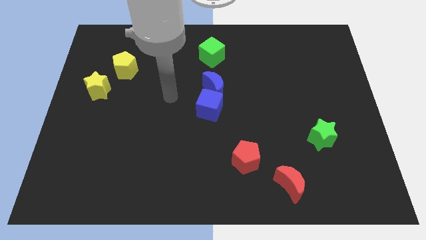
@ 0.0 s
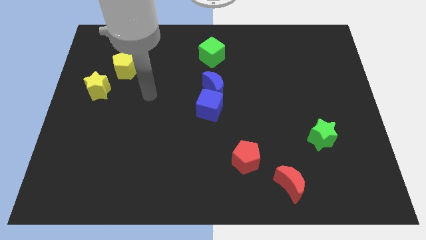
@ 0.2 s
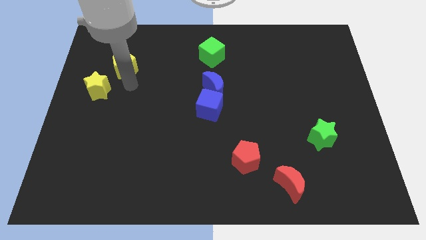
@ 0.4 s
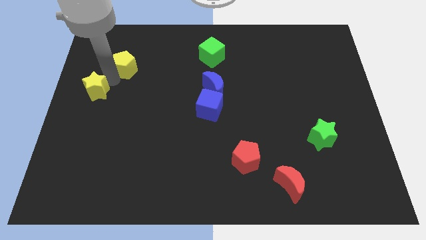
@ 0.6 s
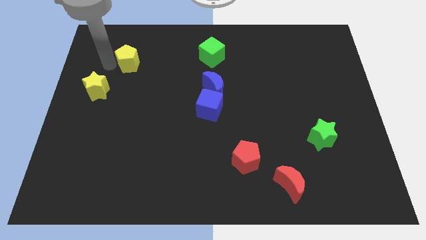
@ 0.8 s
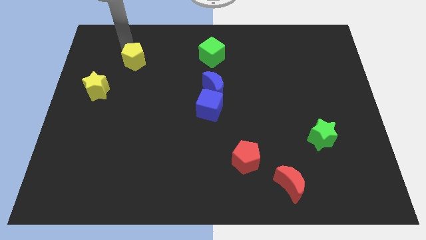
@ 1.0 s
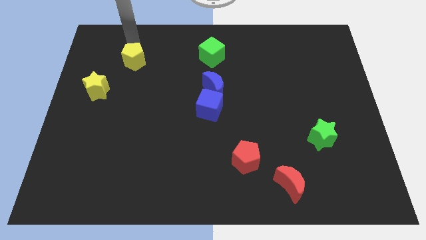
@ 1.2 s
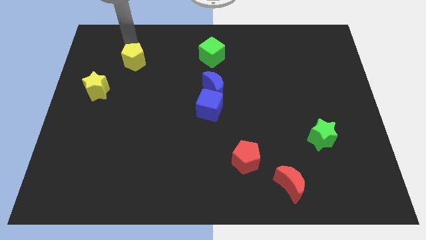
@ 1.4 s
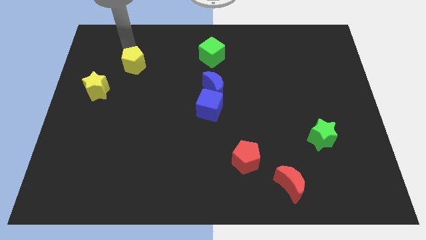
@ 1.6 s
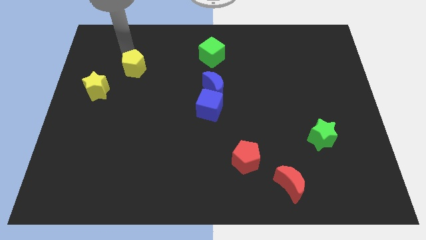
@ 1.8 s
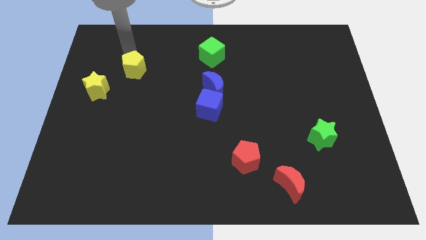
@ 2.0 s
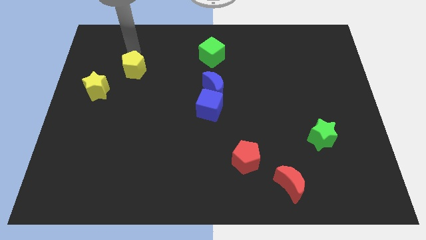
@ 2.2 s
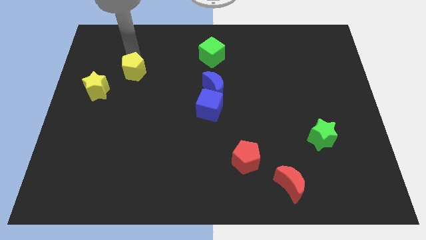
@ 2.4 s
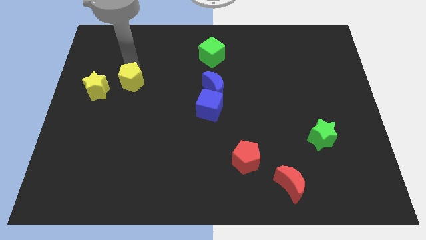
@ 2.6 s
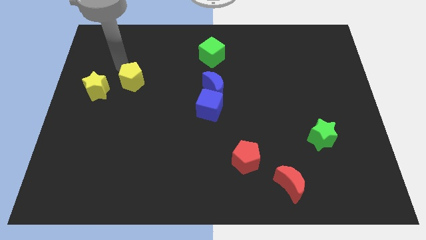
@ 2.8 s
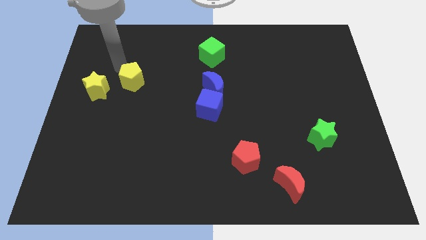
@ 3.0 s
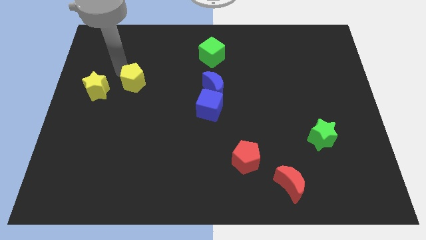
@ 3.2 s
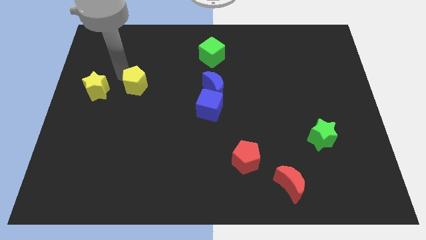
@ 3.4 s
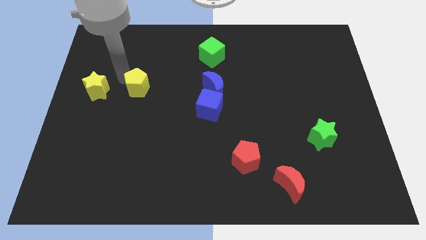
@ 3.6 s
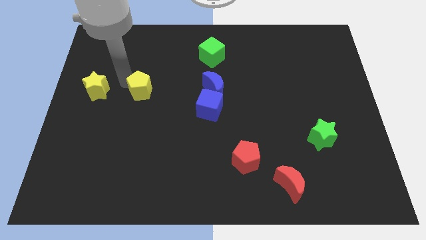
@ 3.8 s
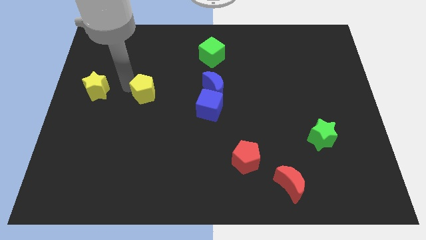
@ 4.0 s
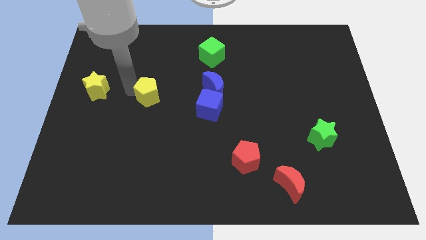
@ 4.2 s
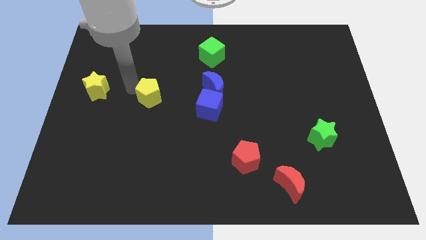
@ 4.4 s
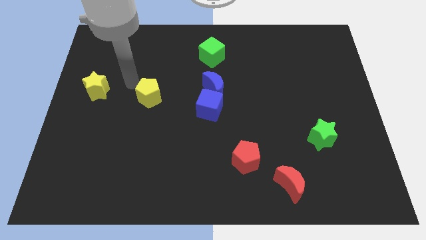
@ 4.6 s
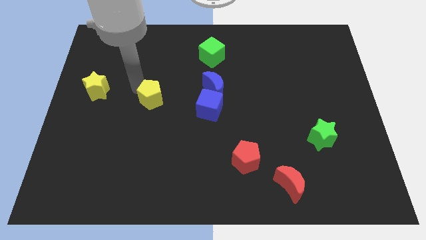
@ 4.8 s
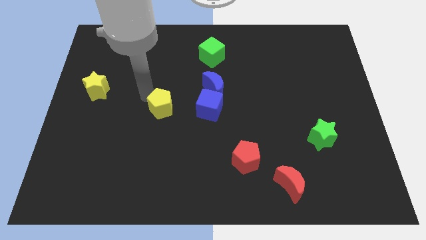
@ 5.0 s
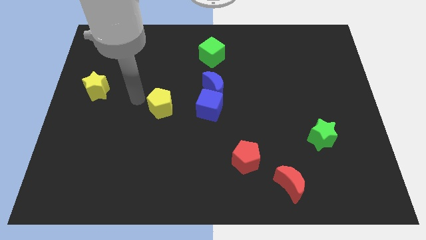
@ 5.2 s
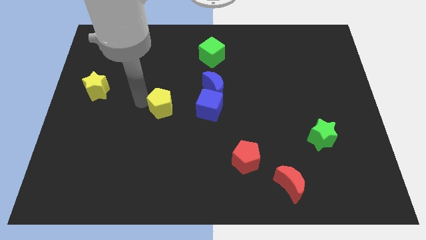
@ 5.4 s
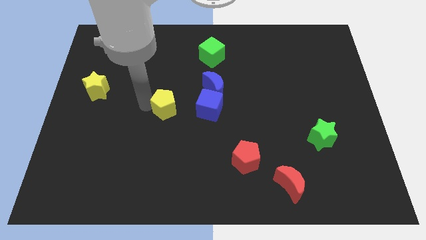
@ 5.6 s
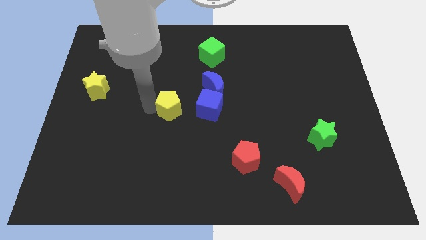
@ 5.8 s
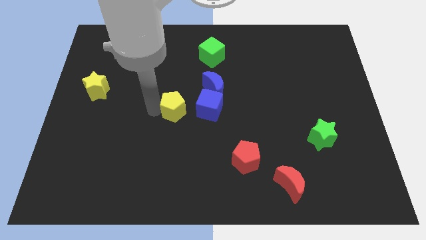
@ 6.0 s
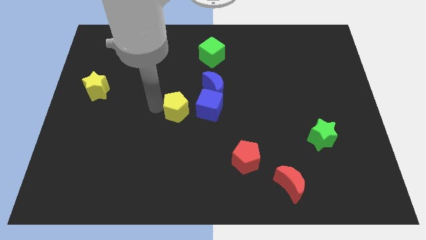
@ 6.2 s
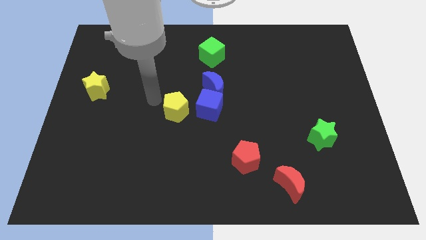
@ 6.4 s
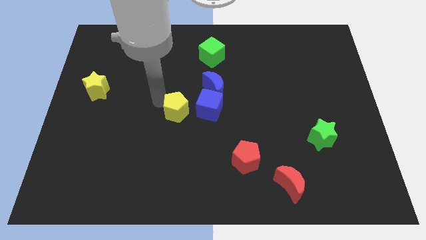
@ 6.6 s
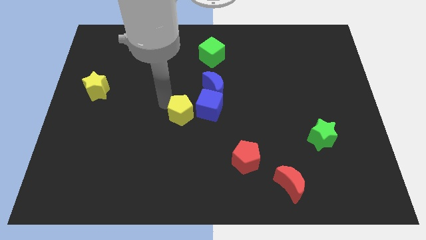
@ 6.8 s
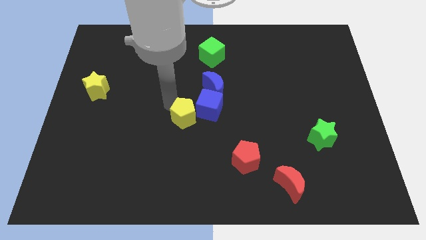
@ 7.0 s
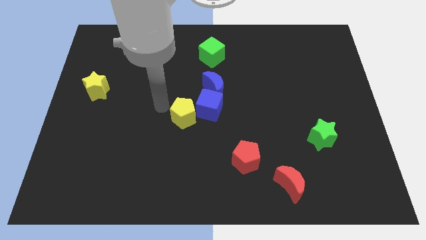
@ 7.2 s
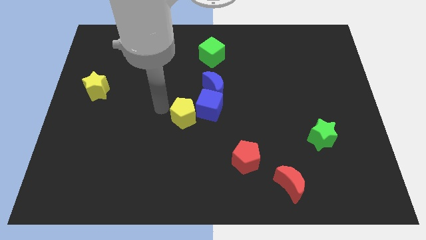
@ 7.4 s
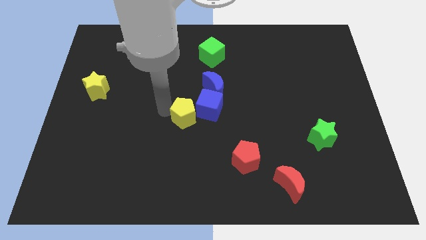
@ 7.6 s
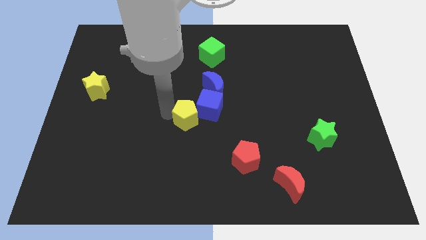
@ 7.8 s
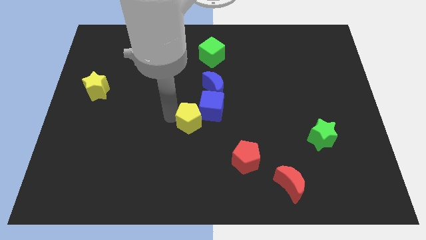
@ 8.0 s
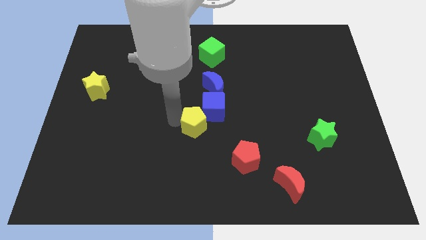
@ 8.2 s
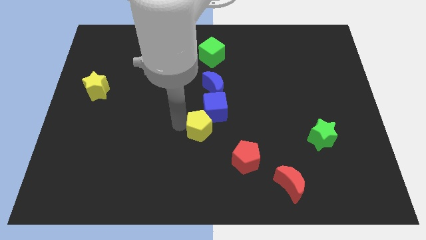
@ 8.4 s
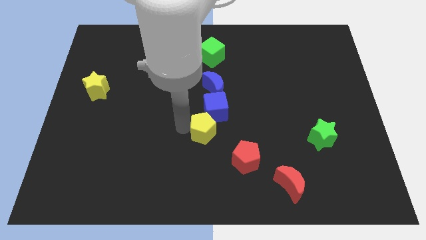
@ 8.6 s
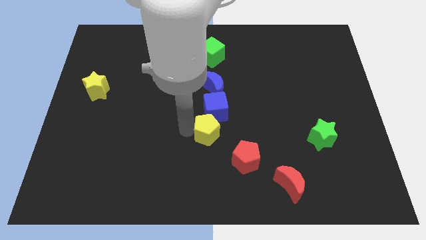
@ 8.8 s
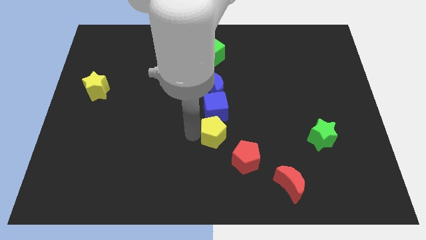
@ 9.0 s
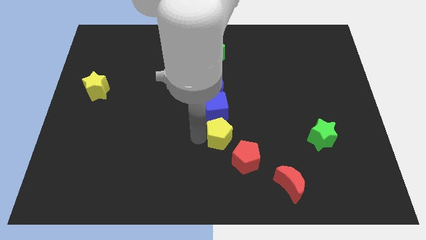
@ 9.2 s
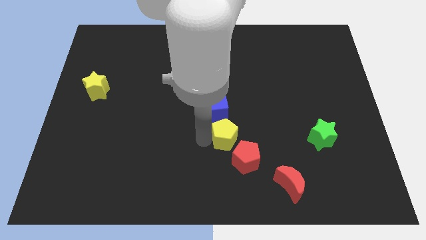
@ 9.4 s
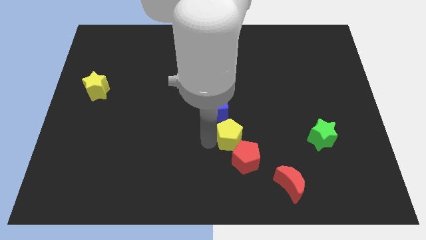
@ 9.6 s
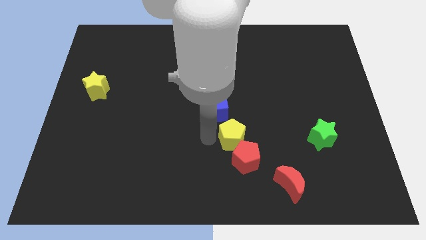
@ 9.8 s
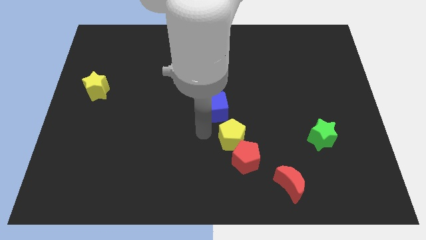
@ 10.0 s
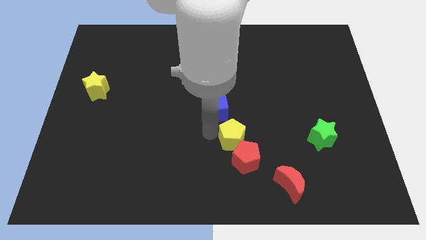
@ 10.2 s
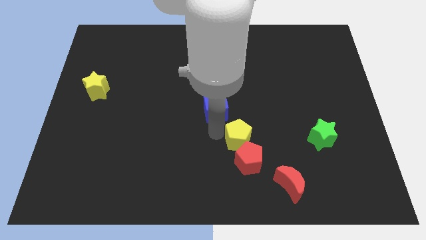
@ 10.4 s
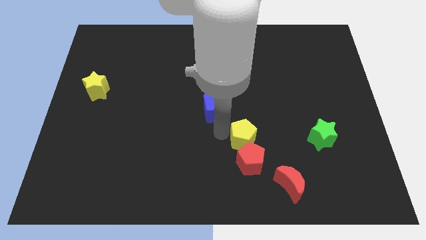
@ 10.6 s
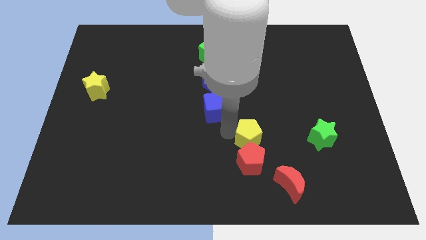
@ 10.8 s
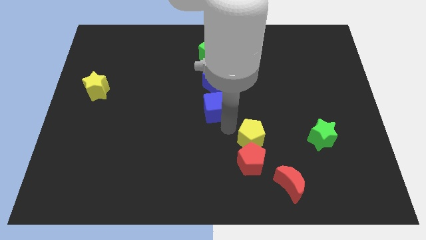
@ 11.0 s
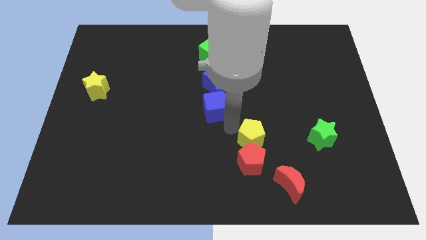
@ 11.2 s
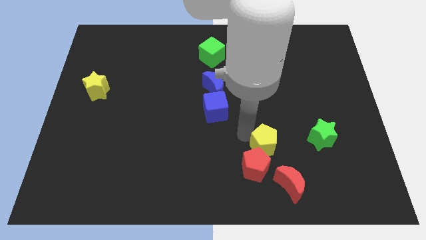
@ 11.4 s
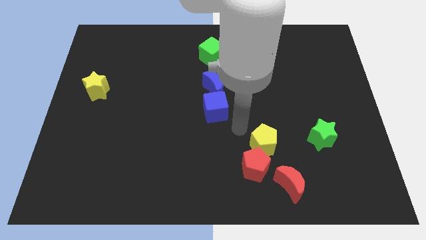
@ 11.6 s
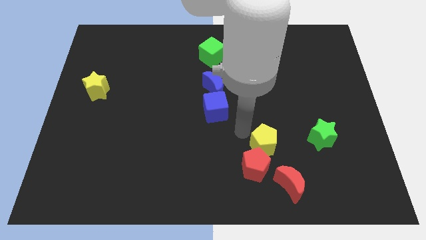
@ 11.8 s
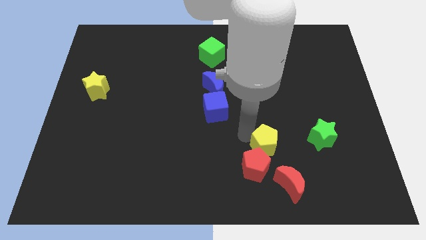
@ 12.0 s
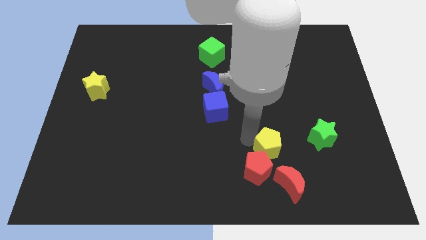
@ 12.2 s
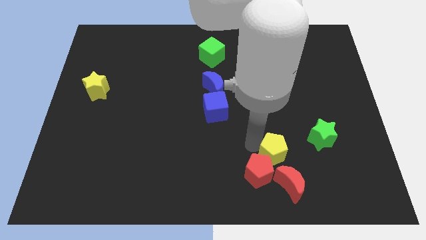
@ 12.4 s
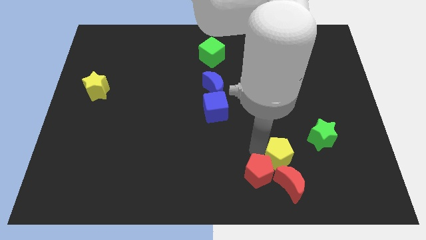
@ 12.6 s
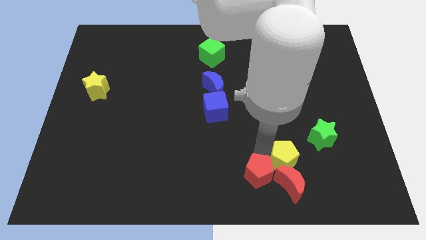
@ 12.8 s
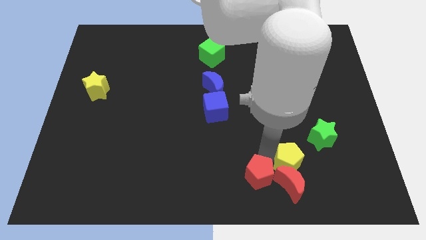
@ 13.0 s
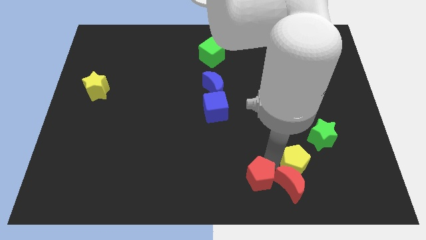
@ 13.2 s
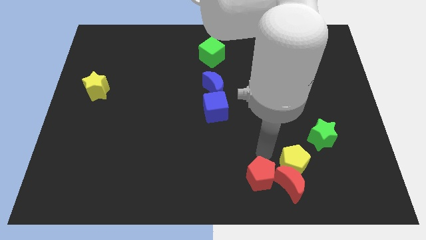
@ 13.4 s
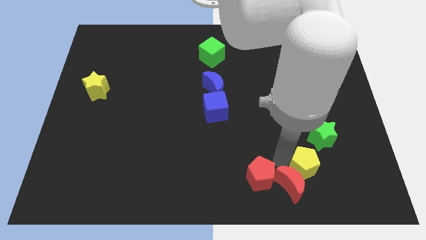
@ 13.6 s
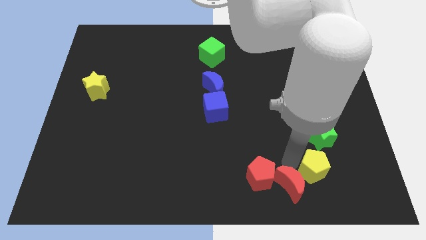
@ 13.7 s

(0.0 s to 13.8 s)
put the yellow pentagon below the green star
